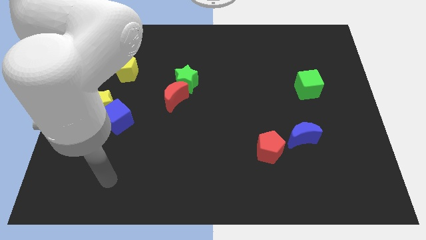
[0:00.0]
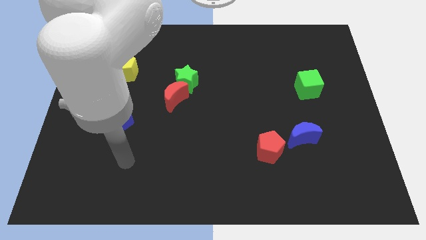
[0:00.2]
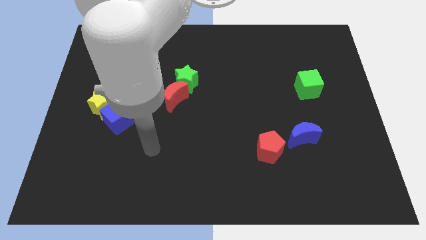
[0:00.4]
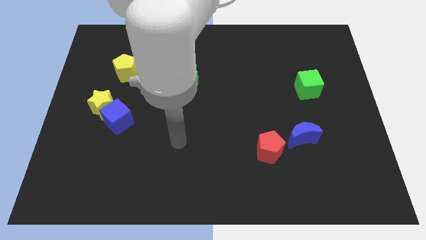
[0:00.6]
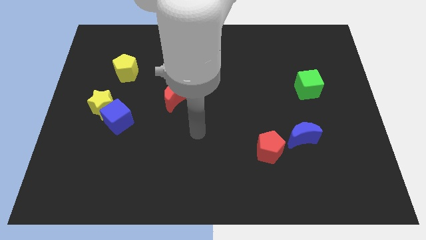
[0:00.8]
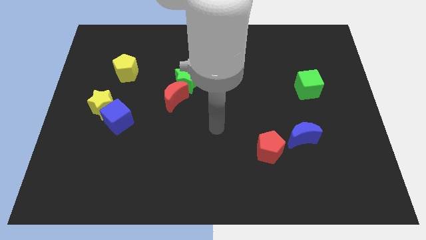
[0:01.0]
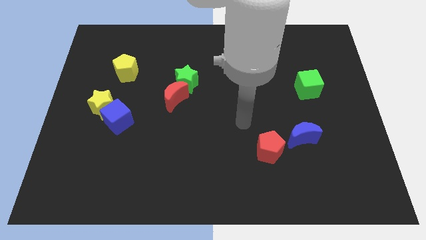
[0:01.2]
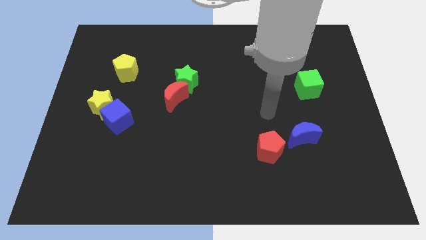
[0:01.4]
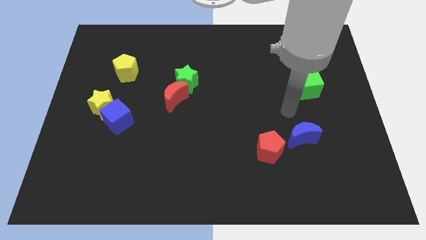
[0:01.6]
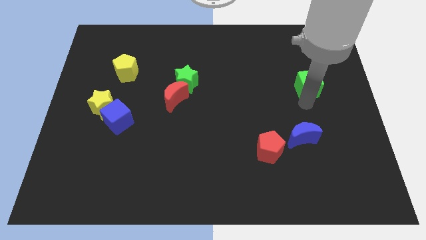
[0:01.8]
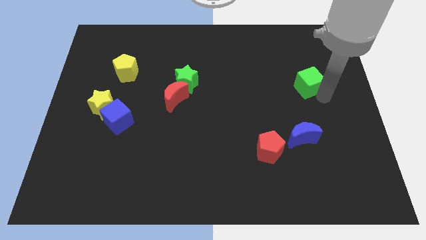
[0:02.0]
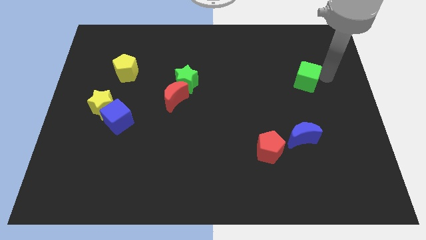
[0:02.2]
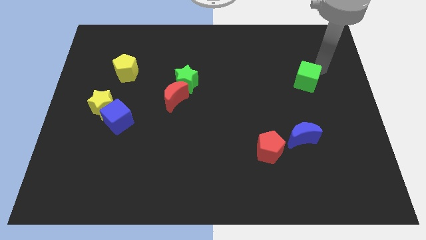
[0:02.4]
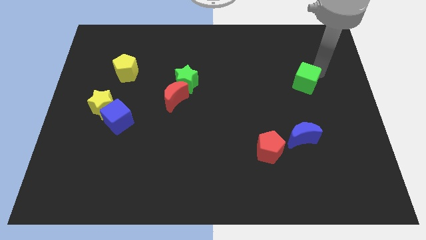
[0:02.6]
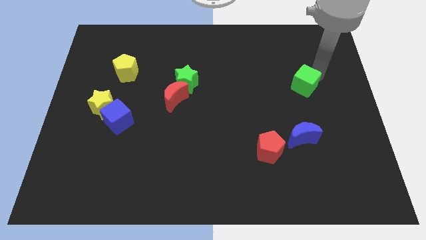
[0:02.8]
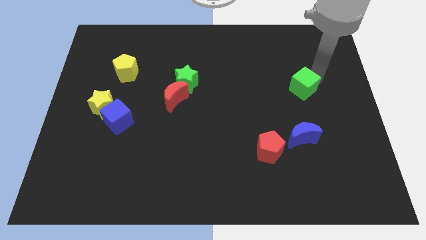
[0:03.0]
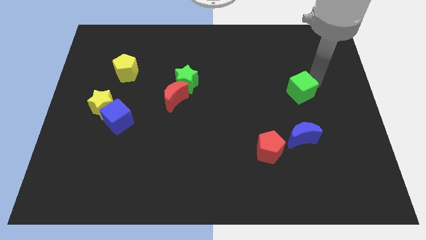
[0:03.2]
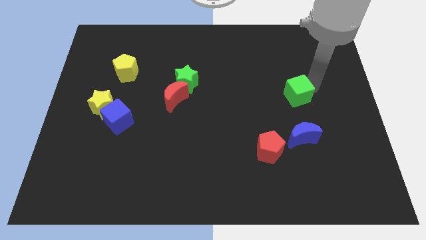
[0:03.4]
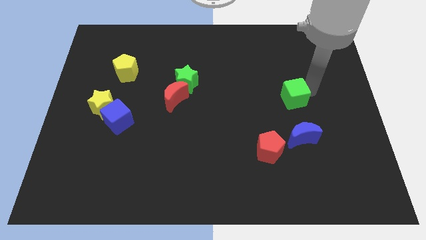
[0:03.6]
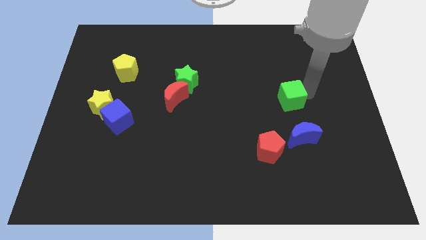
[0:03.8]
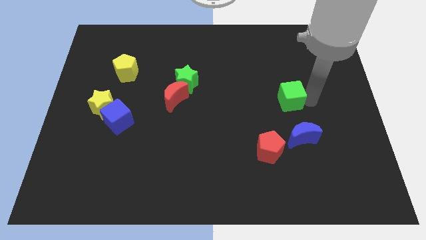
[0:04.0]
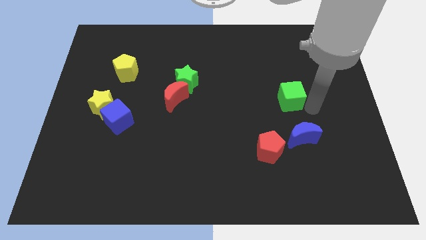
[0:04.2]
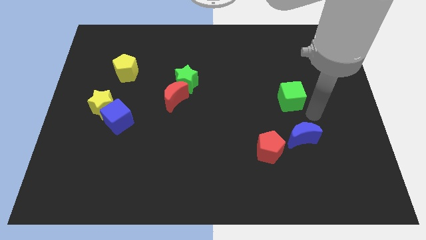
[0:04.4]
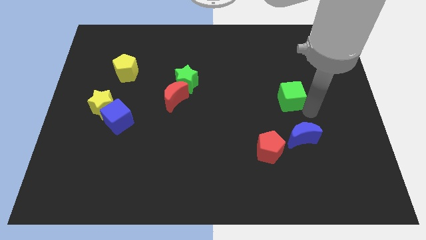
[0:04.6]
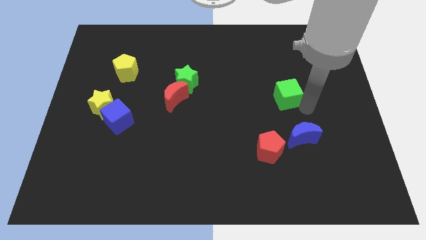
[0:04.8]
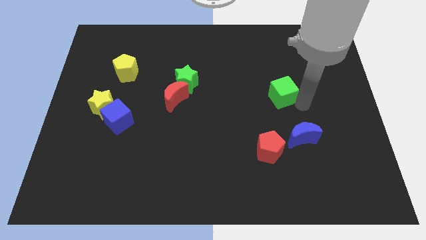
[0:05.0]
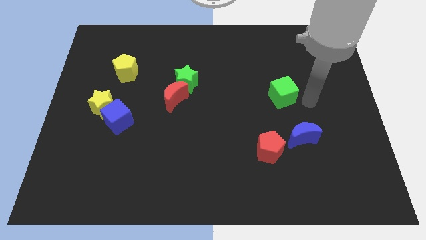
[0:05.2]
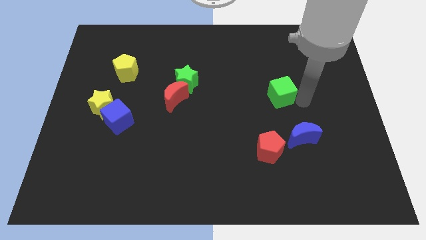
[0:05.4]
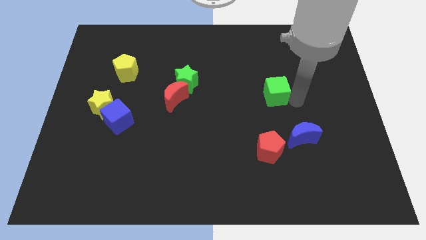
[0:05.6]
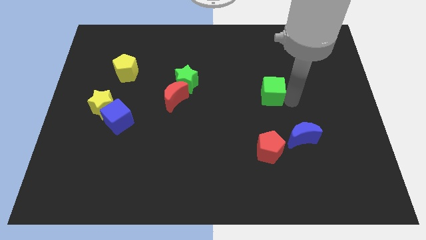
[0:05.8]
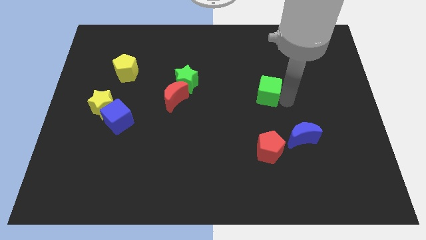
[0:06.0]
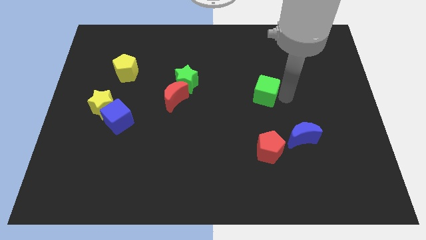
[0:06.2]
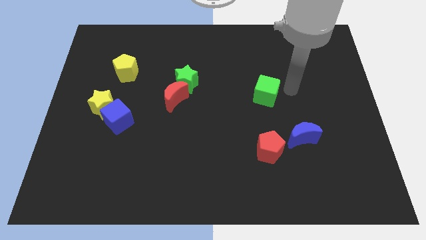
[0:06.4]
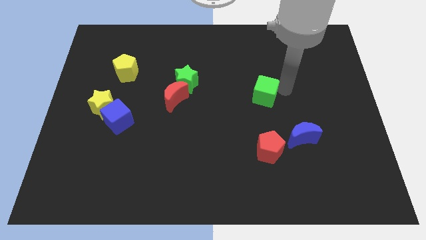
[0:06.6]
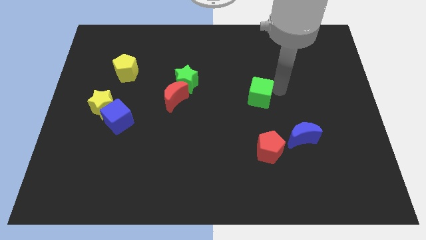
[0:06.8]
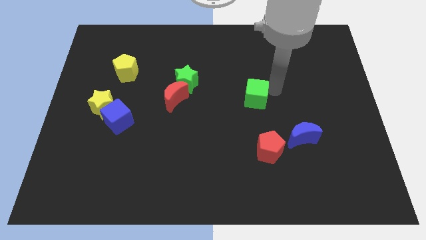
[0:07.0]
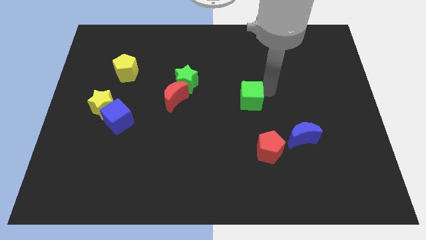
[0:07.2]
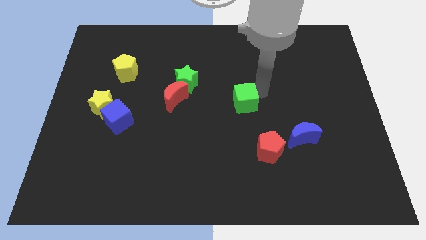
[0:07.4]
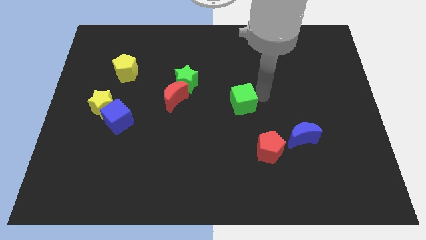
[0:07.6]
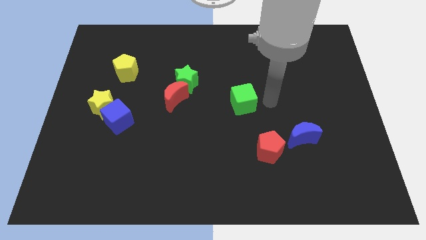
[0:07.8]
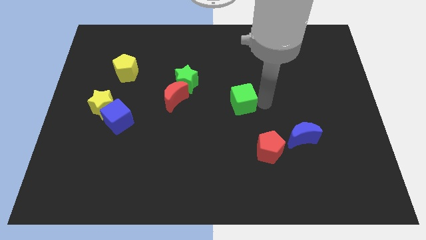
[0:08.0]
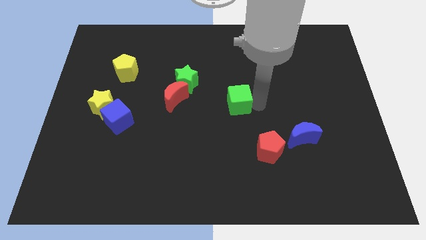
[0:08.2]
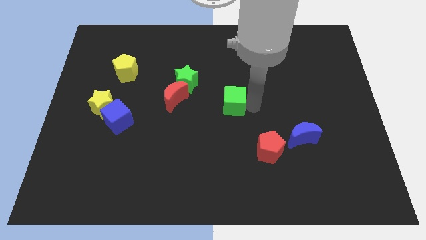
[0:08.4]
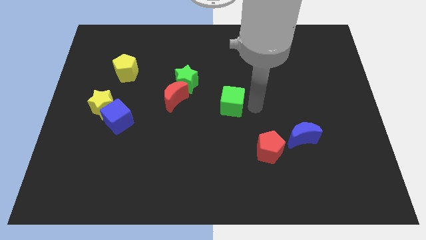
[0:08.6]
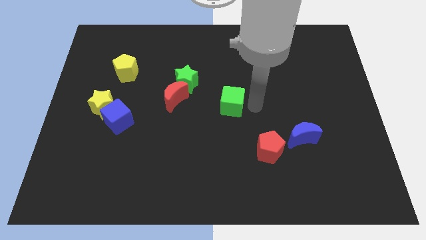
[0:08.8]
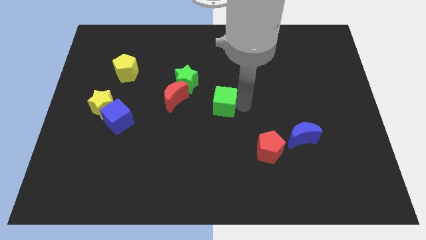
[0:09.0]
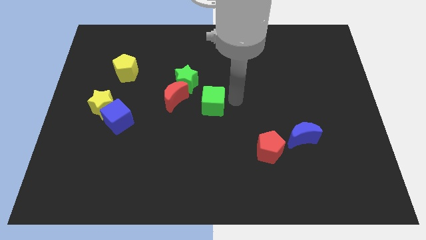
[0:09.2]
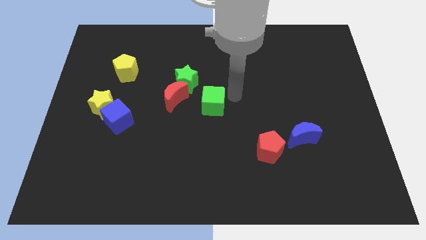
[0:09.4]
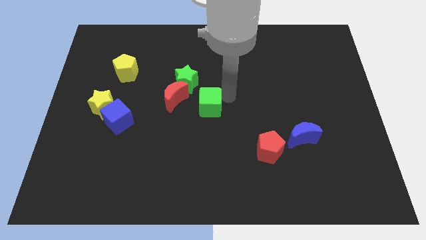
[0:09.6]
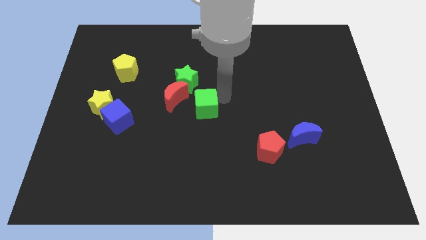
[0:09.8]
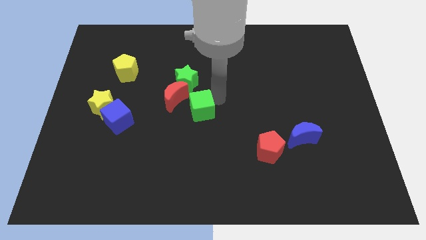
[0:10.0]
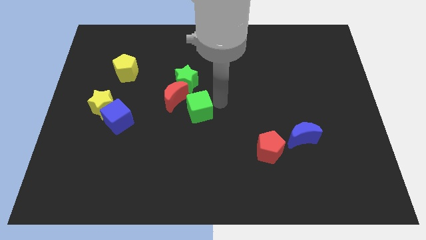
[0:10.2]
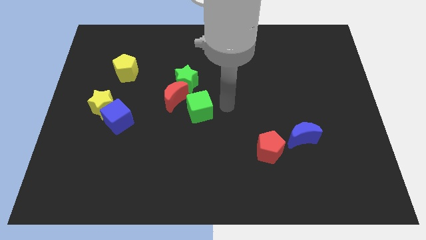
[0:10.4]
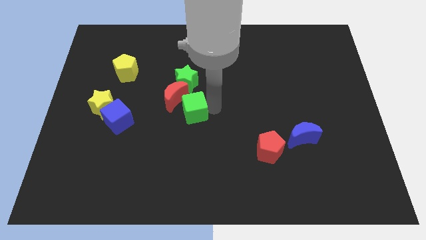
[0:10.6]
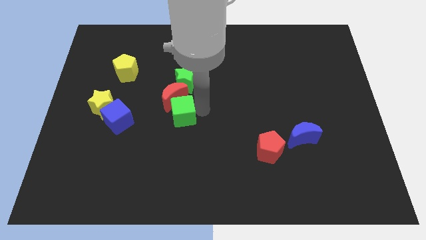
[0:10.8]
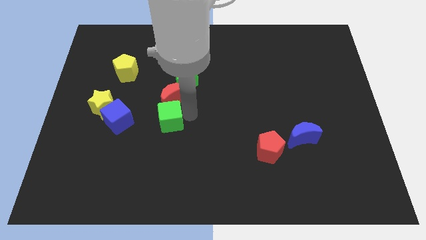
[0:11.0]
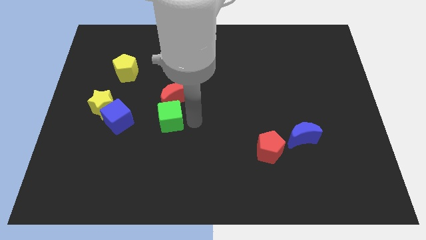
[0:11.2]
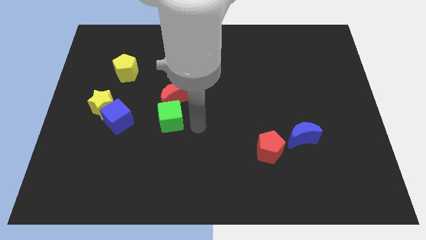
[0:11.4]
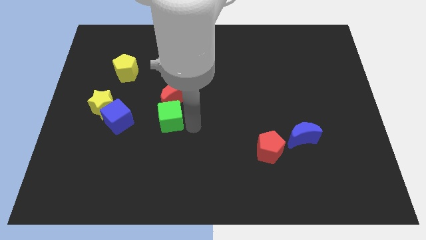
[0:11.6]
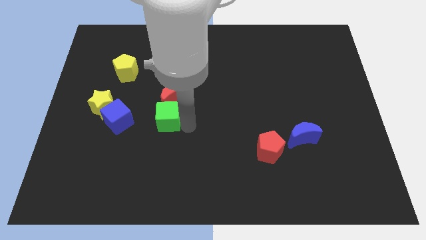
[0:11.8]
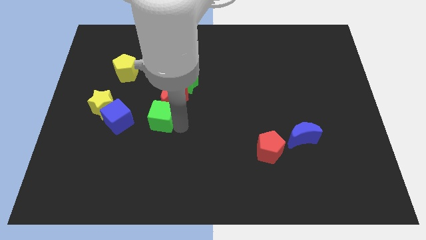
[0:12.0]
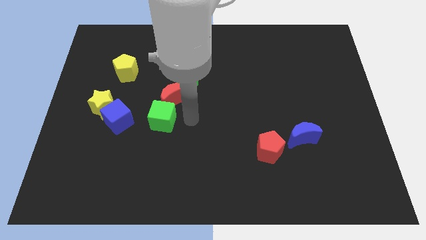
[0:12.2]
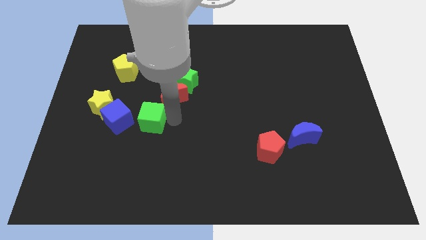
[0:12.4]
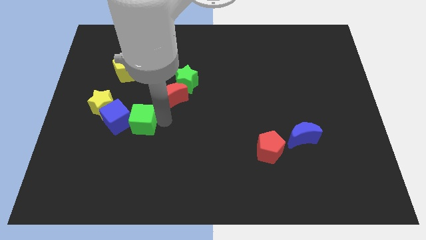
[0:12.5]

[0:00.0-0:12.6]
push the green cube next to the blue cube

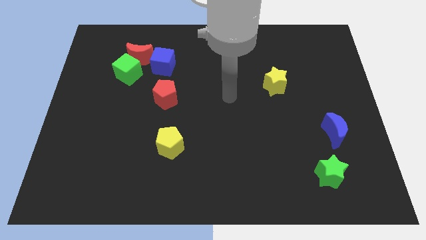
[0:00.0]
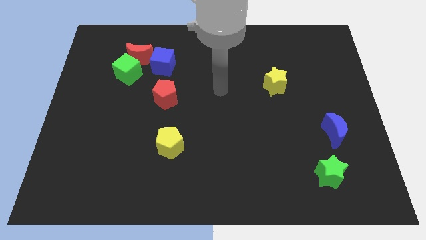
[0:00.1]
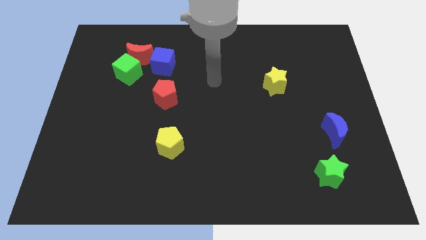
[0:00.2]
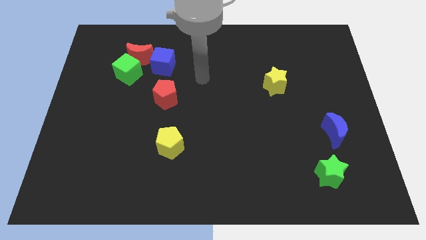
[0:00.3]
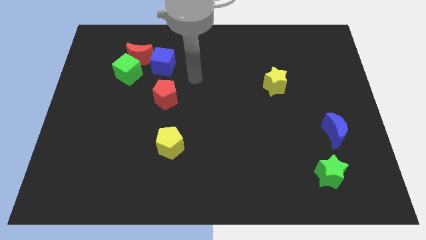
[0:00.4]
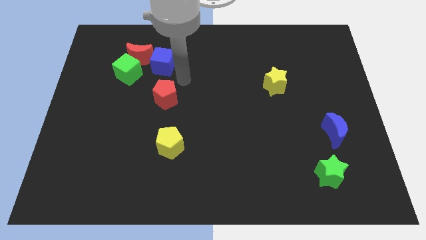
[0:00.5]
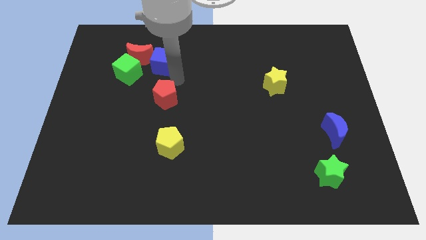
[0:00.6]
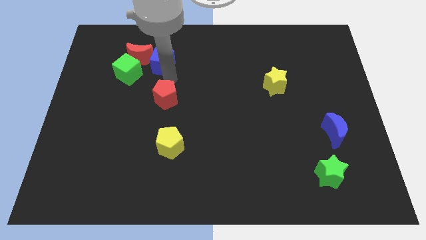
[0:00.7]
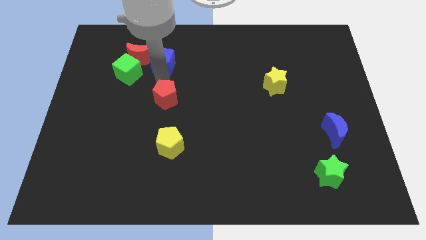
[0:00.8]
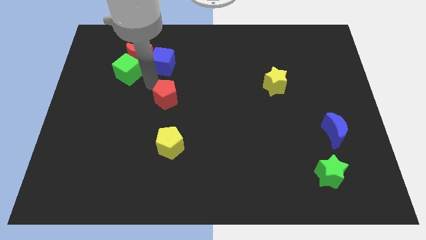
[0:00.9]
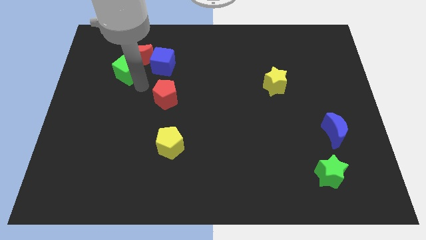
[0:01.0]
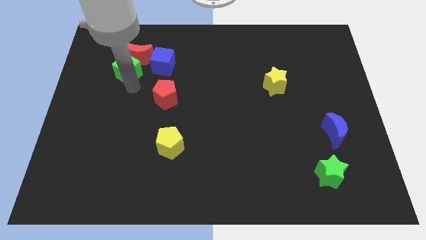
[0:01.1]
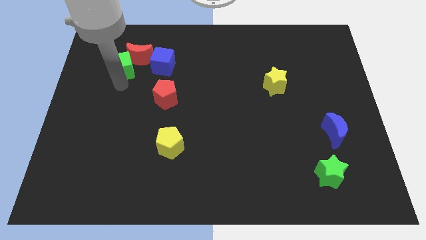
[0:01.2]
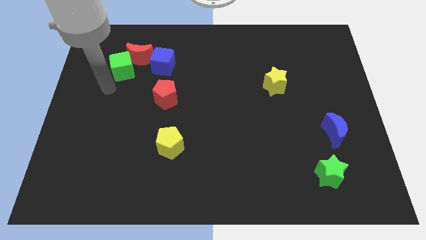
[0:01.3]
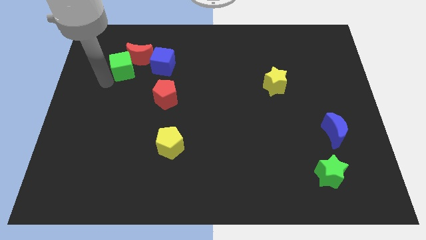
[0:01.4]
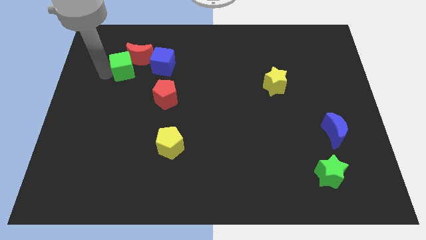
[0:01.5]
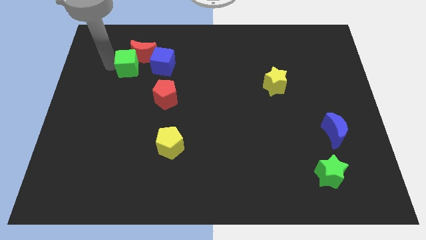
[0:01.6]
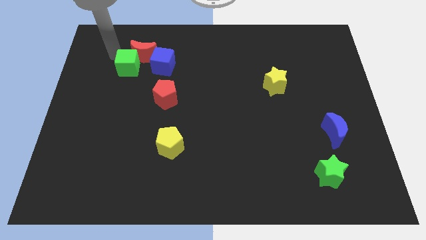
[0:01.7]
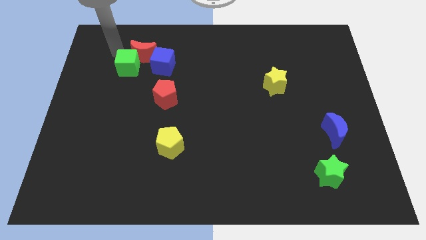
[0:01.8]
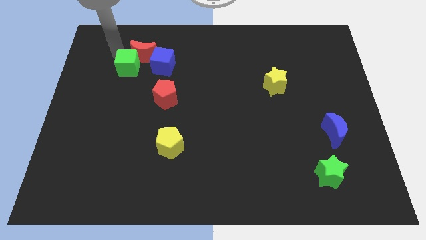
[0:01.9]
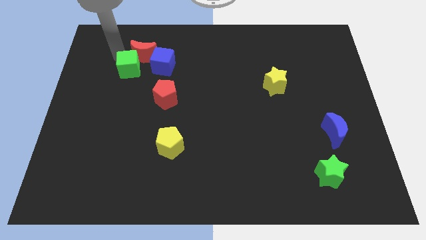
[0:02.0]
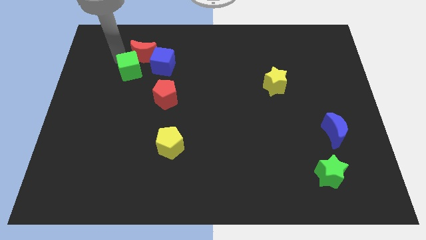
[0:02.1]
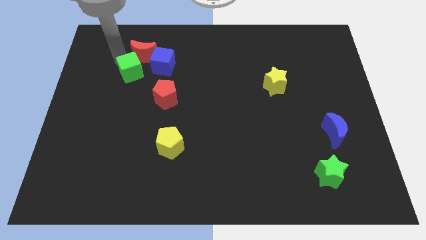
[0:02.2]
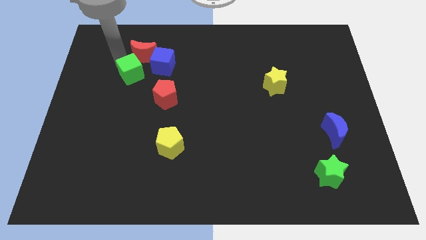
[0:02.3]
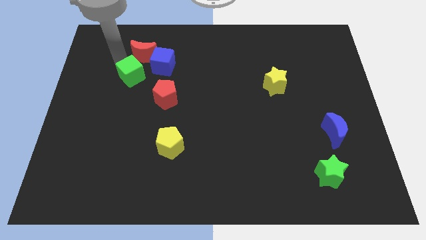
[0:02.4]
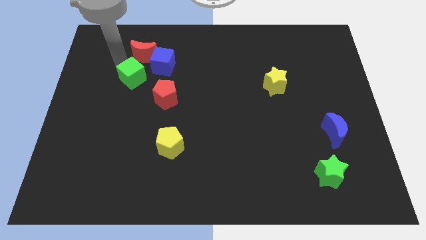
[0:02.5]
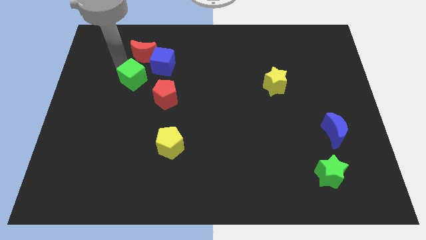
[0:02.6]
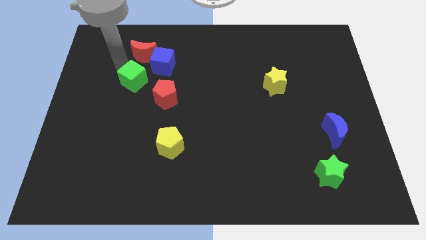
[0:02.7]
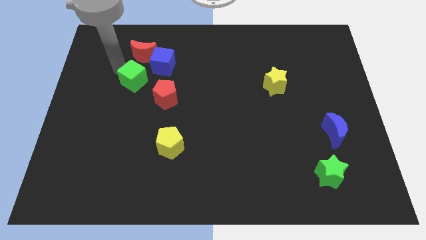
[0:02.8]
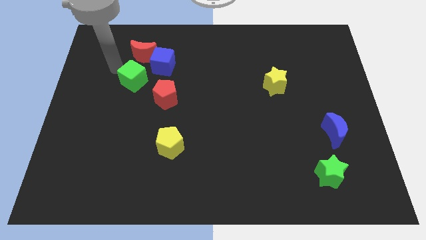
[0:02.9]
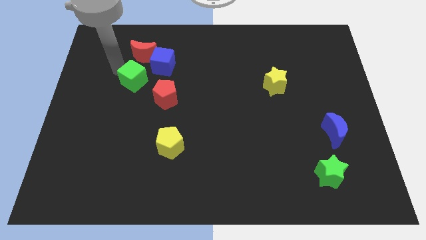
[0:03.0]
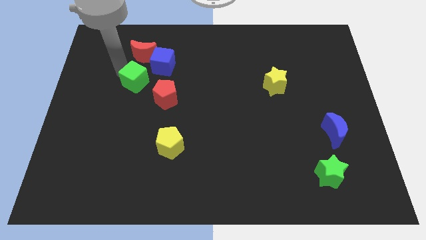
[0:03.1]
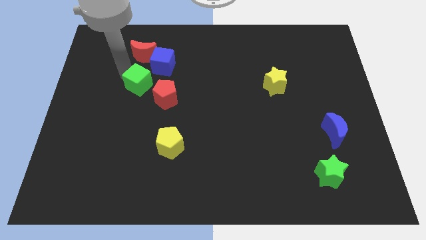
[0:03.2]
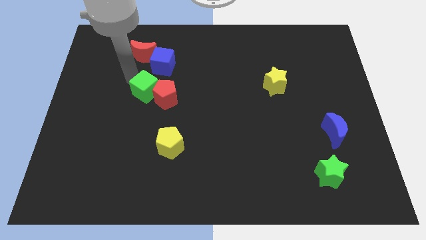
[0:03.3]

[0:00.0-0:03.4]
slide the green cube towards the red pentagon
